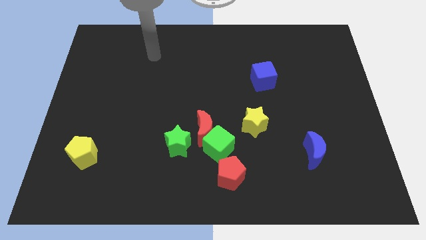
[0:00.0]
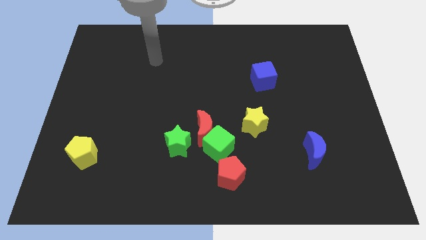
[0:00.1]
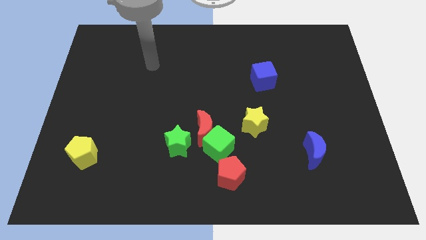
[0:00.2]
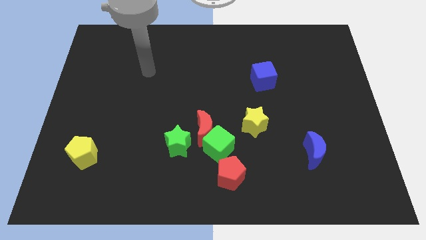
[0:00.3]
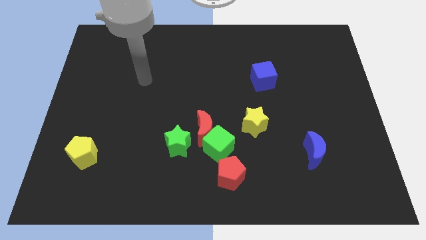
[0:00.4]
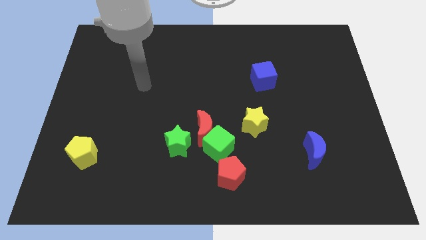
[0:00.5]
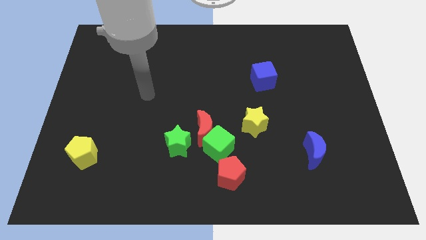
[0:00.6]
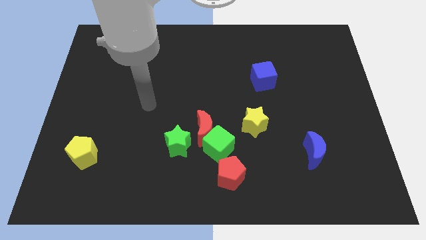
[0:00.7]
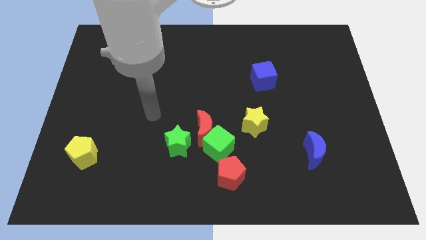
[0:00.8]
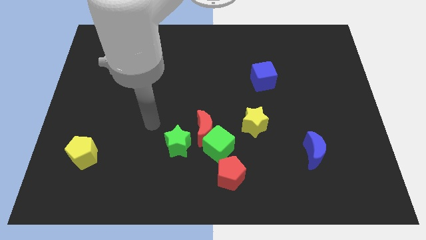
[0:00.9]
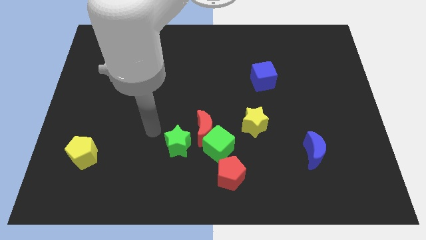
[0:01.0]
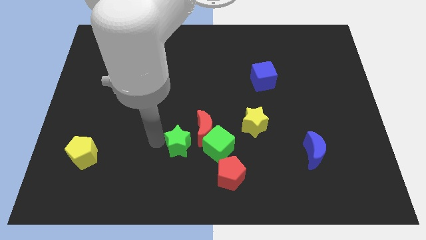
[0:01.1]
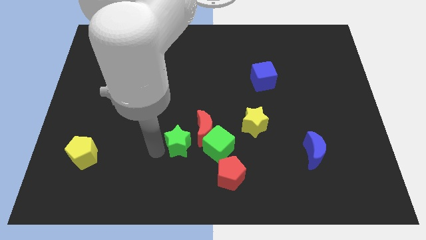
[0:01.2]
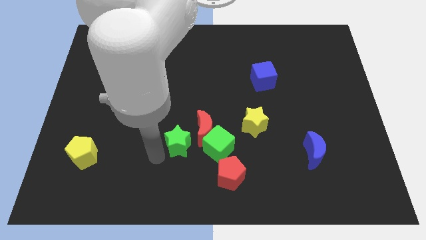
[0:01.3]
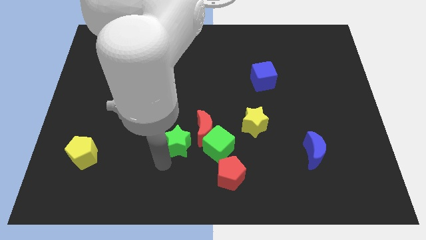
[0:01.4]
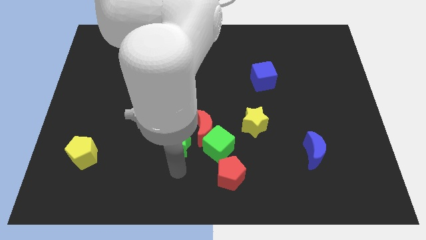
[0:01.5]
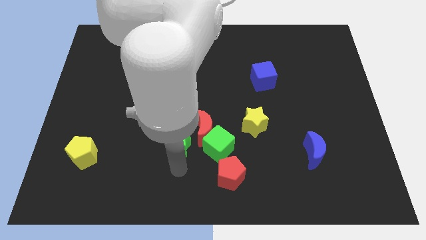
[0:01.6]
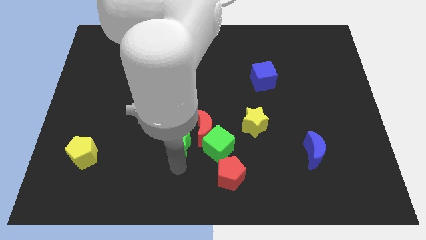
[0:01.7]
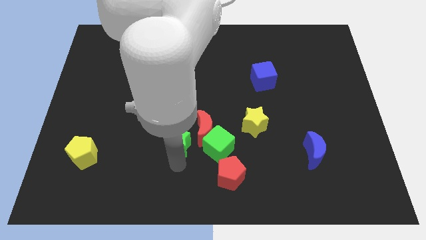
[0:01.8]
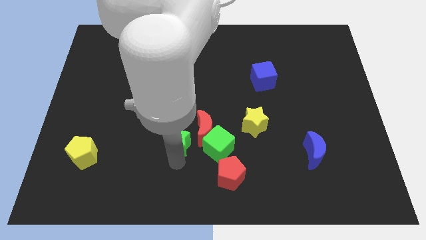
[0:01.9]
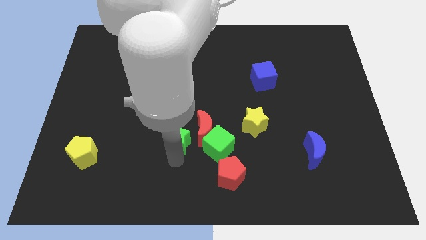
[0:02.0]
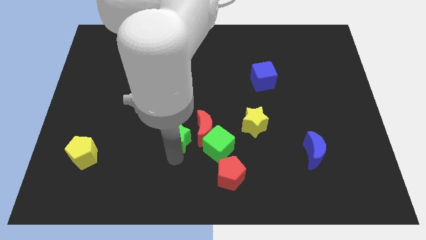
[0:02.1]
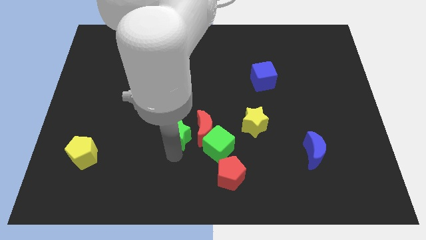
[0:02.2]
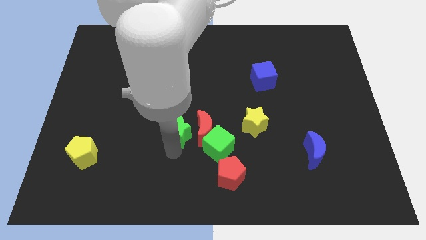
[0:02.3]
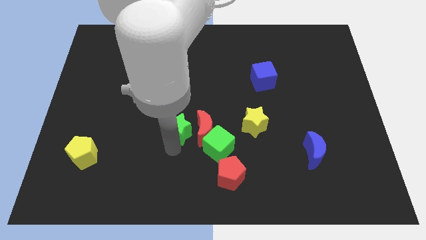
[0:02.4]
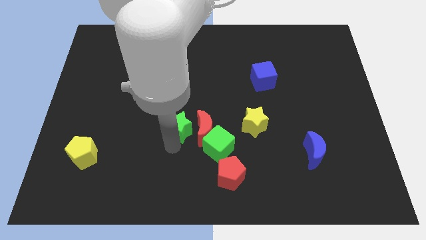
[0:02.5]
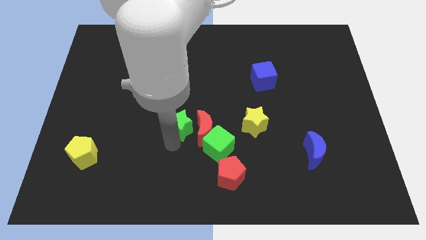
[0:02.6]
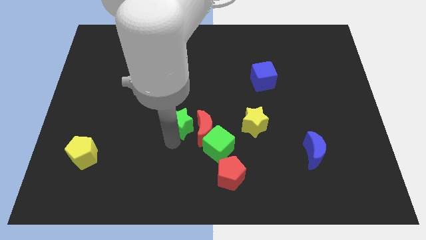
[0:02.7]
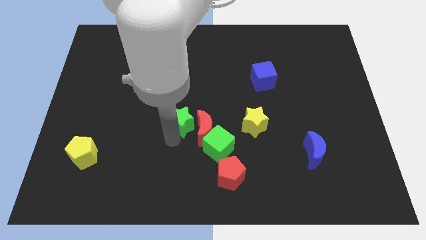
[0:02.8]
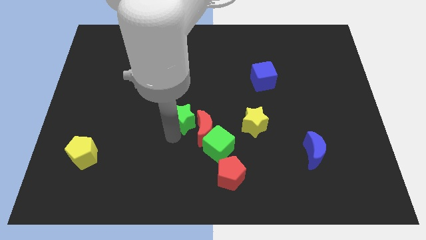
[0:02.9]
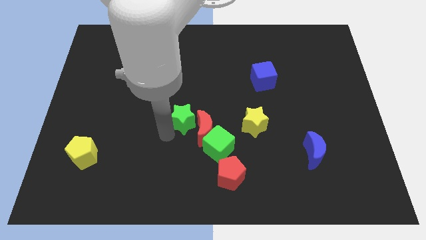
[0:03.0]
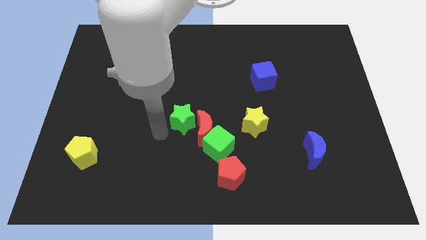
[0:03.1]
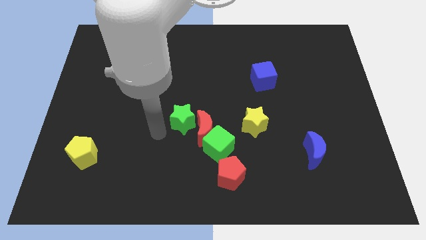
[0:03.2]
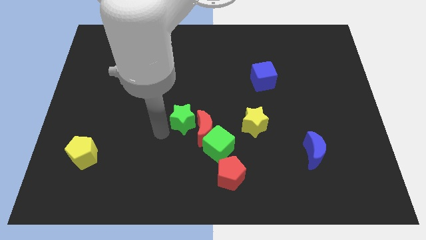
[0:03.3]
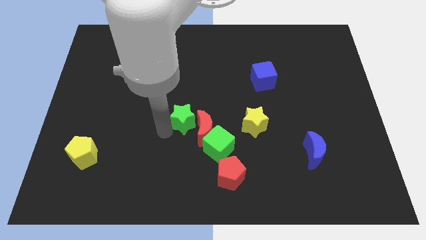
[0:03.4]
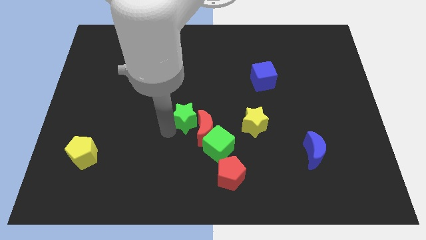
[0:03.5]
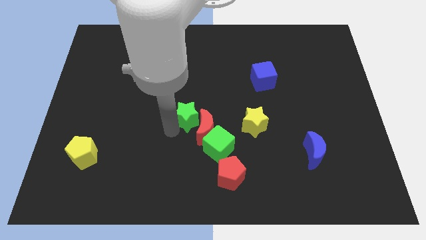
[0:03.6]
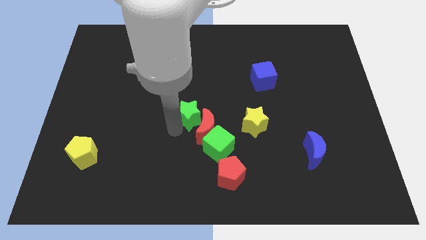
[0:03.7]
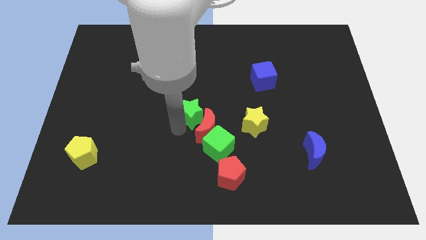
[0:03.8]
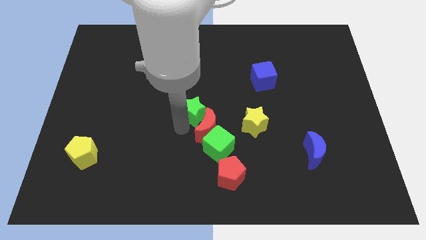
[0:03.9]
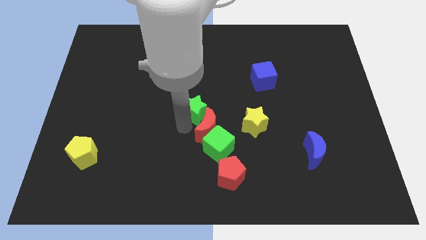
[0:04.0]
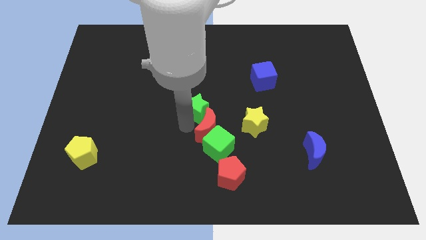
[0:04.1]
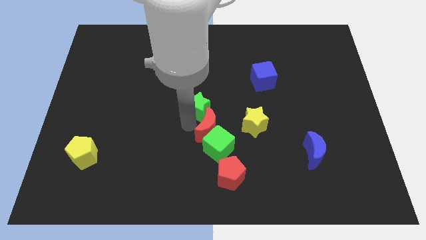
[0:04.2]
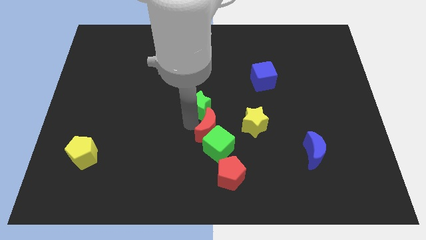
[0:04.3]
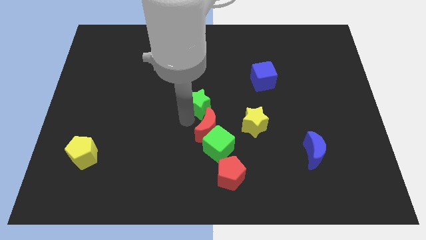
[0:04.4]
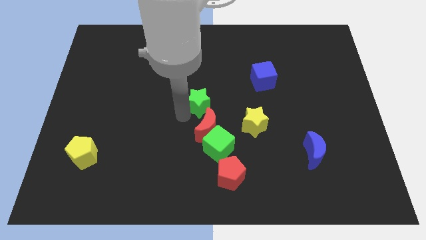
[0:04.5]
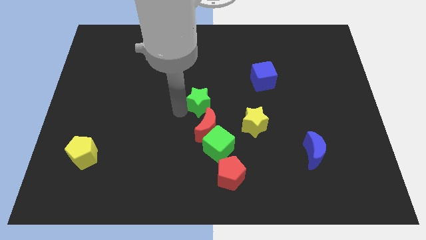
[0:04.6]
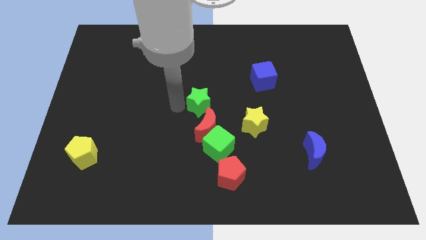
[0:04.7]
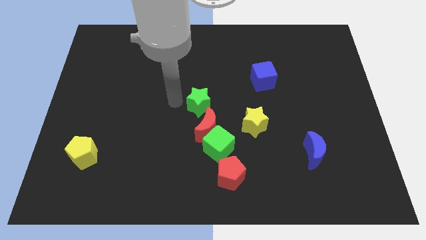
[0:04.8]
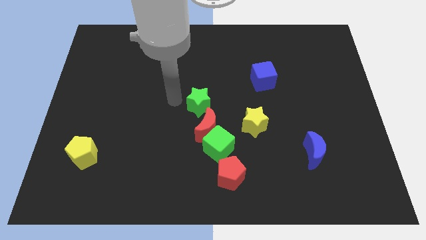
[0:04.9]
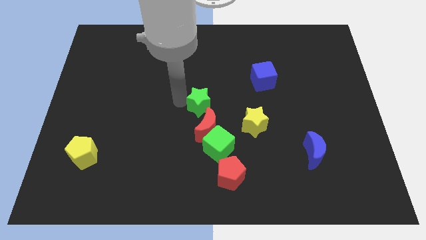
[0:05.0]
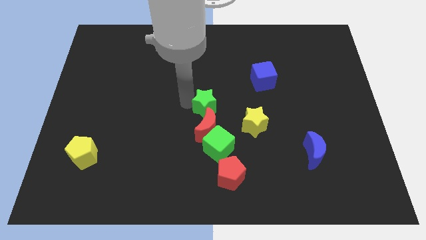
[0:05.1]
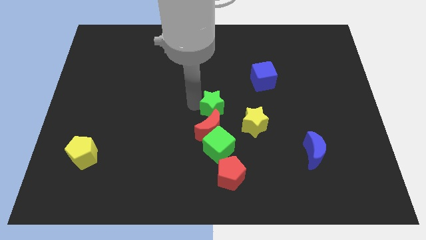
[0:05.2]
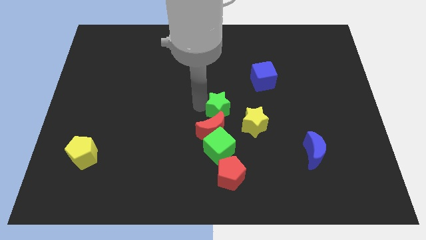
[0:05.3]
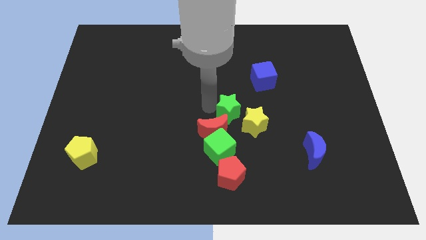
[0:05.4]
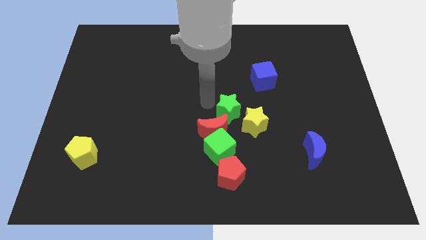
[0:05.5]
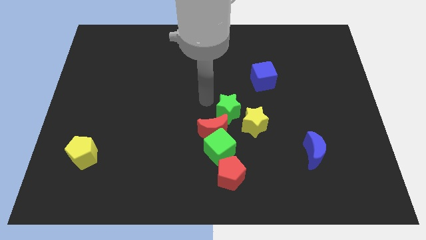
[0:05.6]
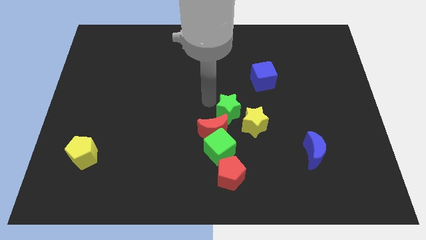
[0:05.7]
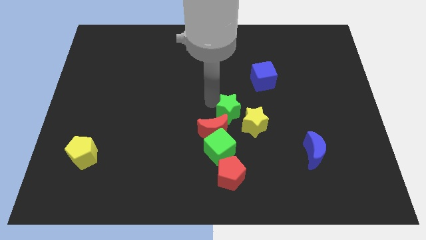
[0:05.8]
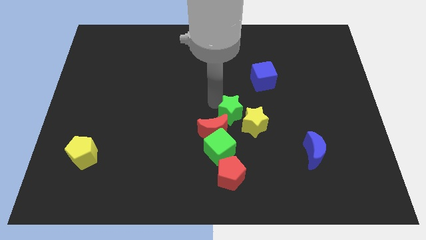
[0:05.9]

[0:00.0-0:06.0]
put the green star next to the yellow star

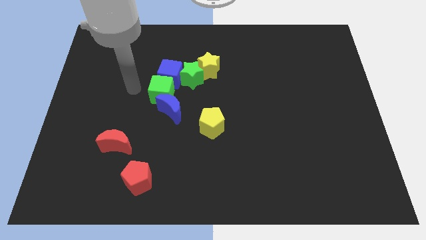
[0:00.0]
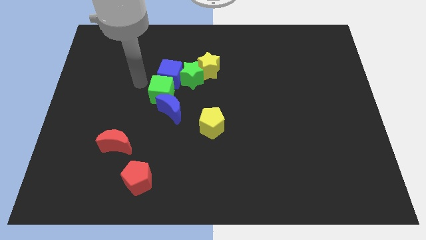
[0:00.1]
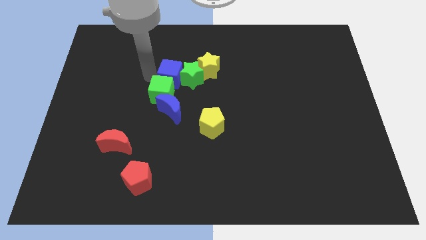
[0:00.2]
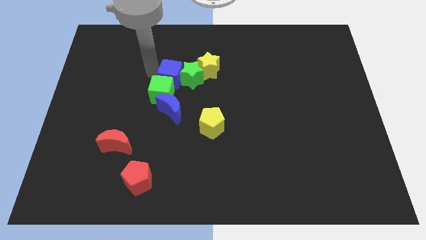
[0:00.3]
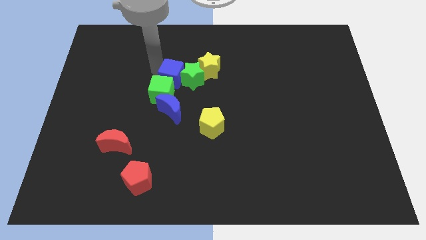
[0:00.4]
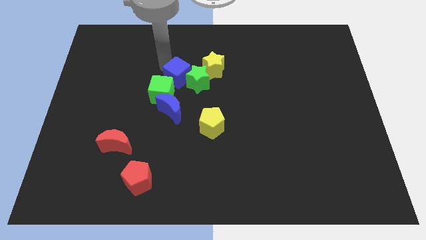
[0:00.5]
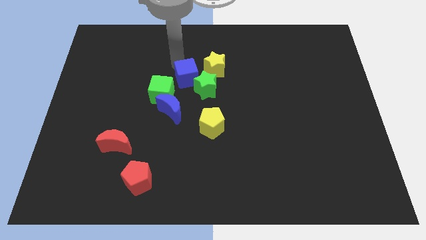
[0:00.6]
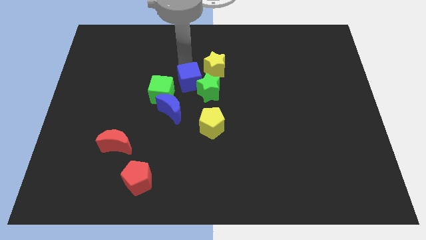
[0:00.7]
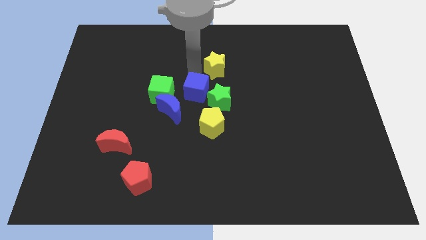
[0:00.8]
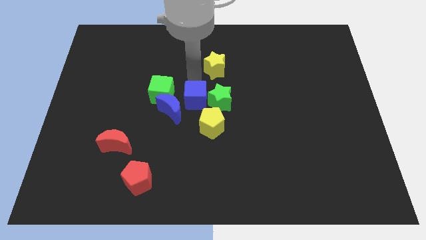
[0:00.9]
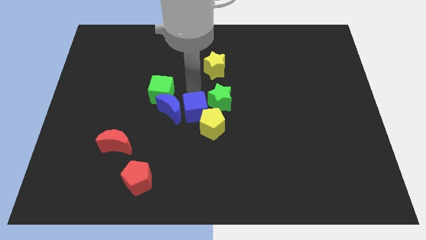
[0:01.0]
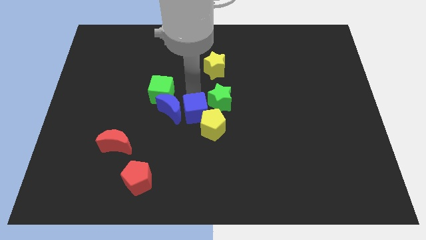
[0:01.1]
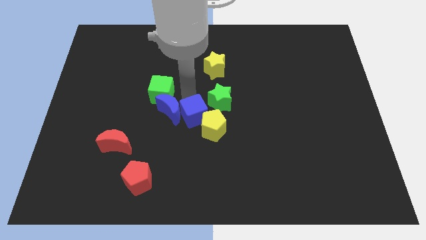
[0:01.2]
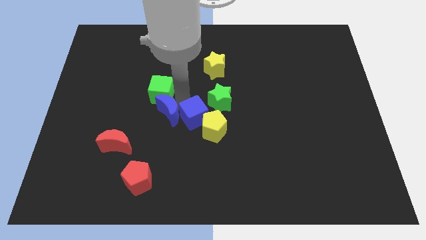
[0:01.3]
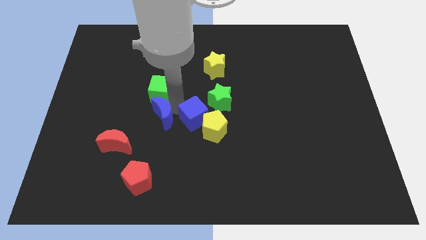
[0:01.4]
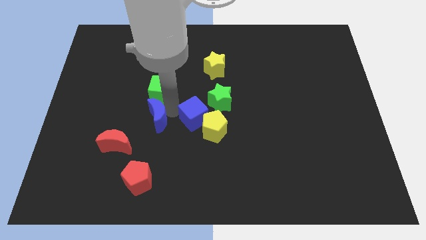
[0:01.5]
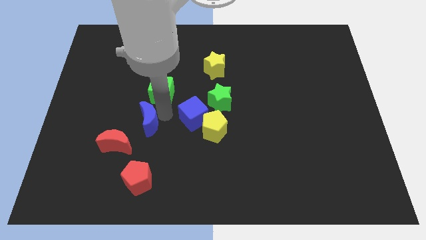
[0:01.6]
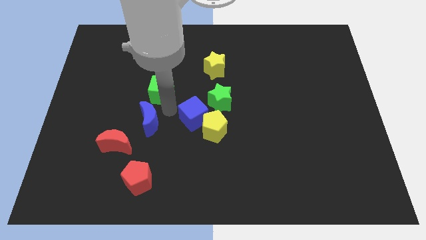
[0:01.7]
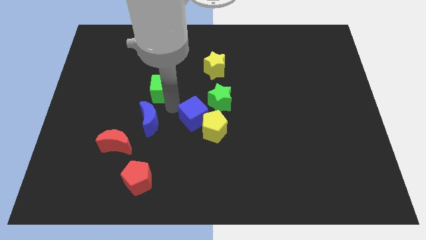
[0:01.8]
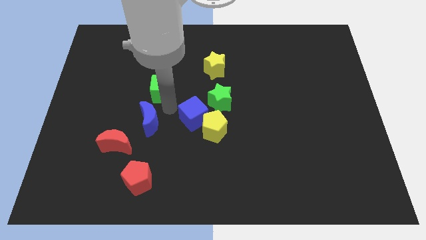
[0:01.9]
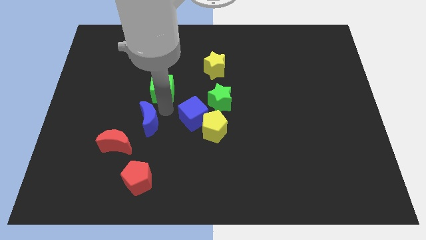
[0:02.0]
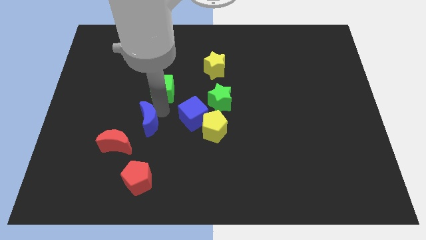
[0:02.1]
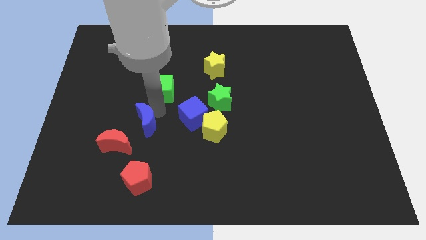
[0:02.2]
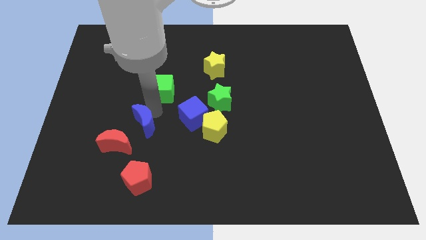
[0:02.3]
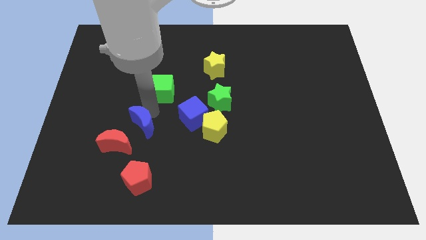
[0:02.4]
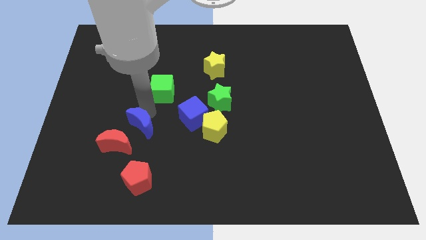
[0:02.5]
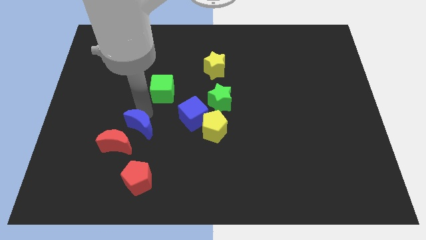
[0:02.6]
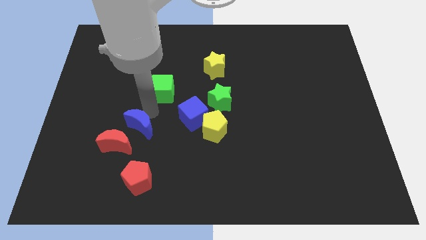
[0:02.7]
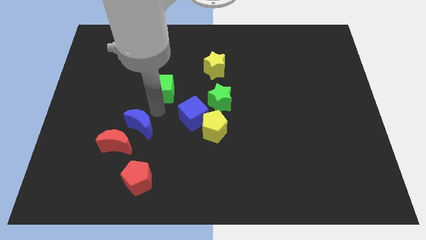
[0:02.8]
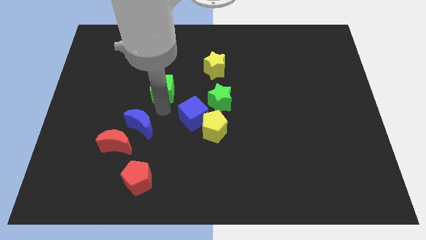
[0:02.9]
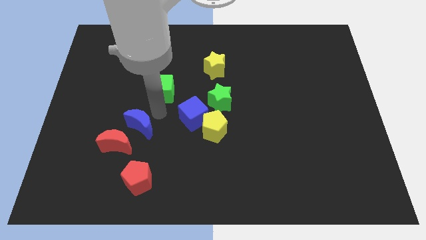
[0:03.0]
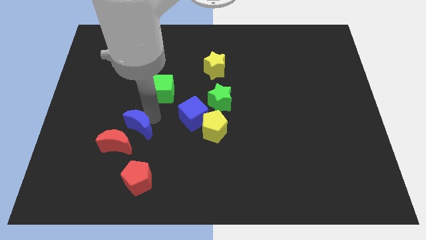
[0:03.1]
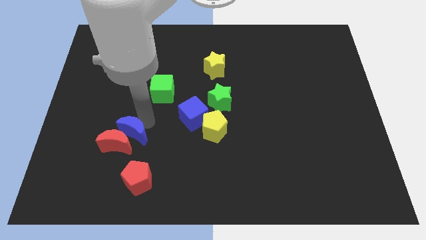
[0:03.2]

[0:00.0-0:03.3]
push the blue moon next to the red moon
